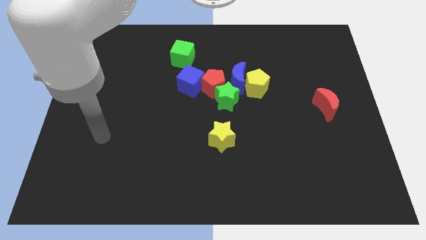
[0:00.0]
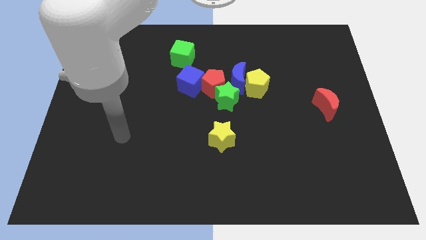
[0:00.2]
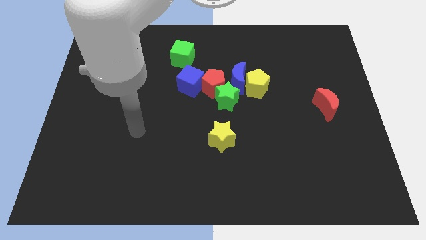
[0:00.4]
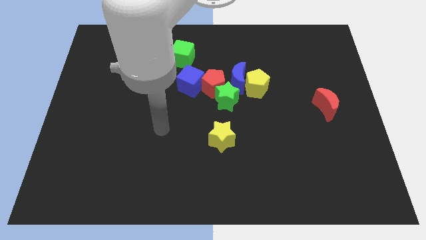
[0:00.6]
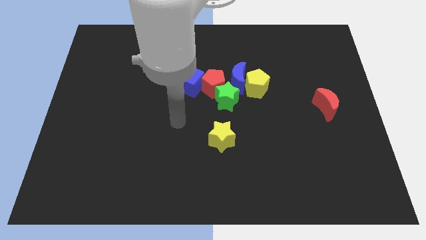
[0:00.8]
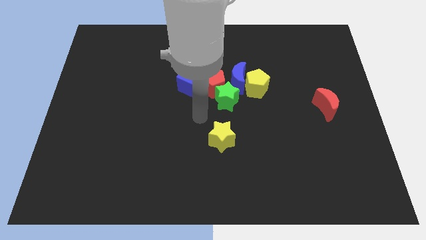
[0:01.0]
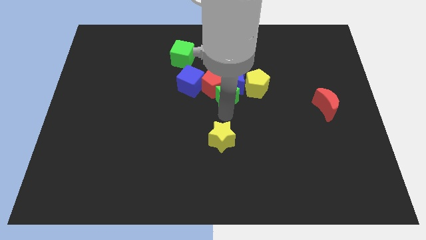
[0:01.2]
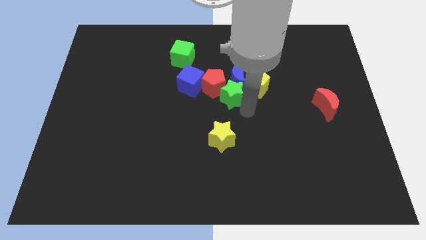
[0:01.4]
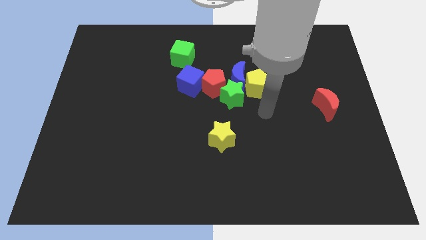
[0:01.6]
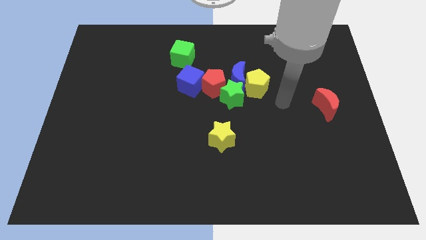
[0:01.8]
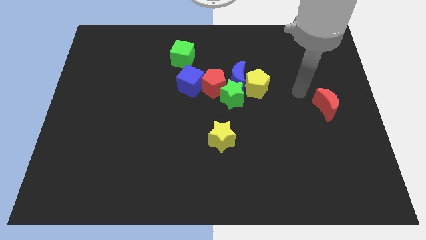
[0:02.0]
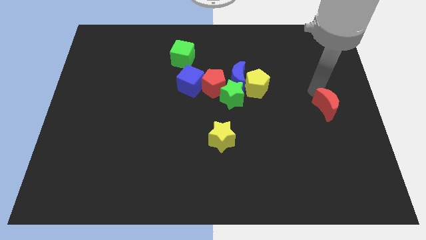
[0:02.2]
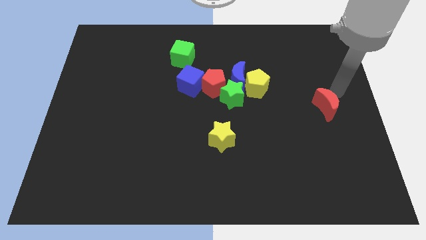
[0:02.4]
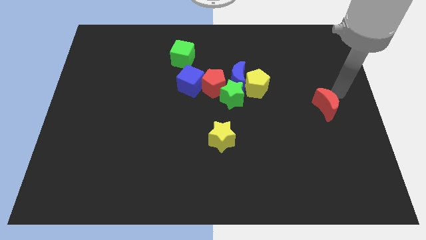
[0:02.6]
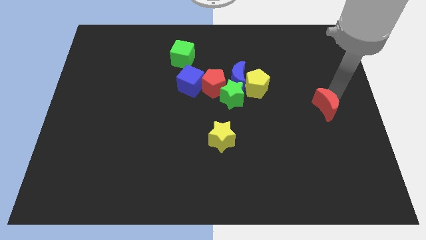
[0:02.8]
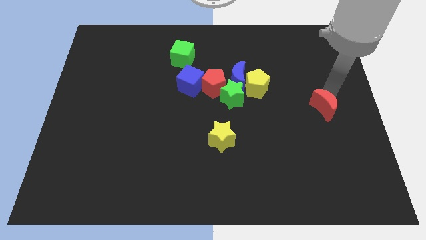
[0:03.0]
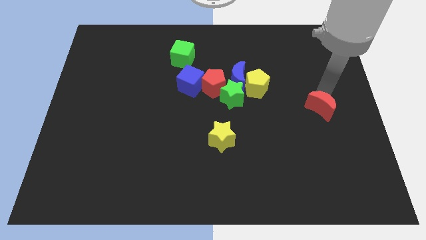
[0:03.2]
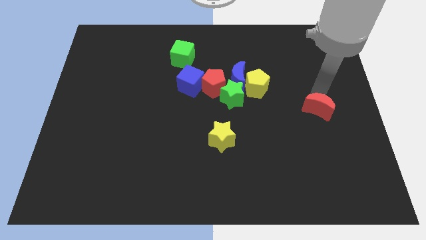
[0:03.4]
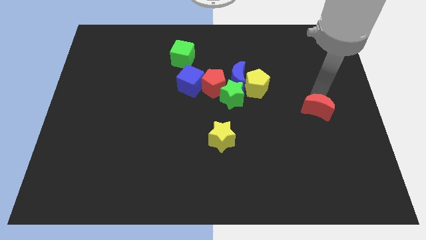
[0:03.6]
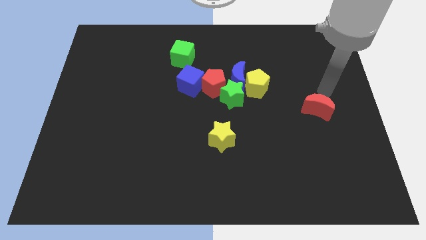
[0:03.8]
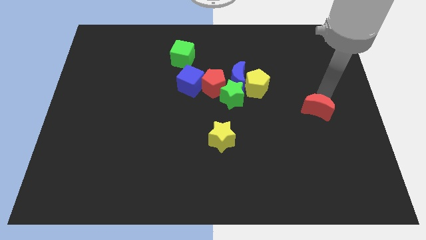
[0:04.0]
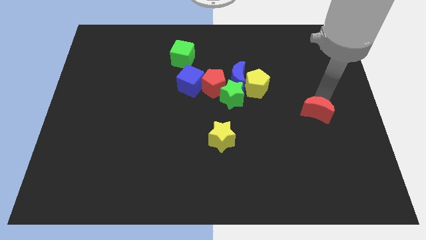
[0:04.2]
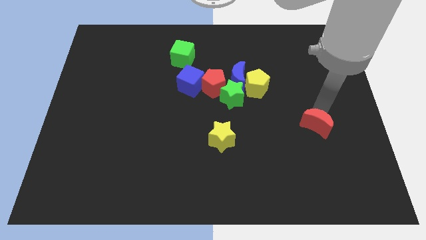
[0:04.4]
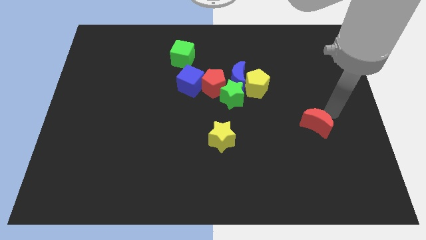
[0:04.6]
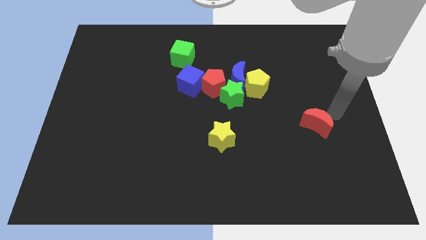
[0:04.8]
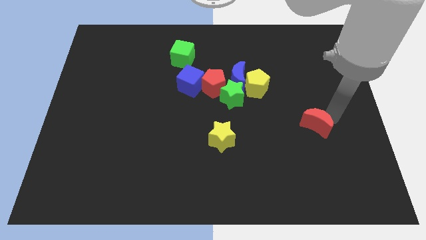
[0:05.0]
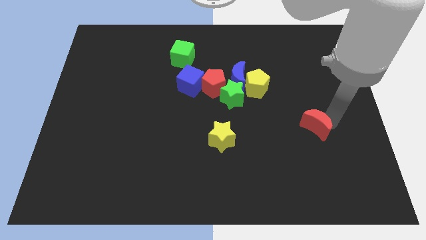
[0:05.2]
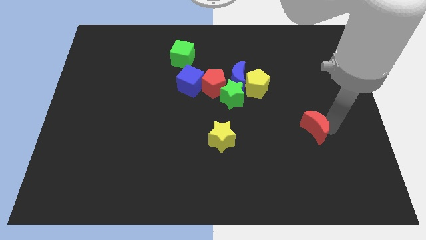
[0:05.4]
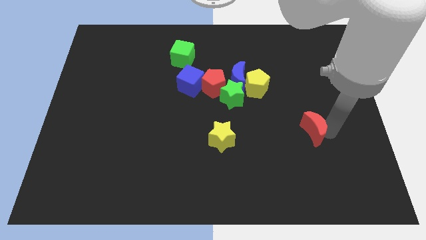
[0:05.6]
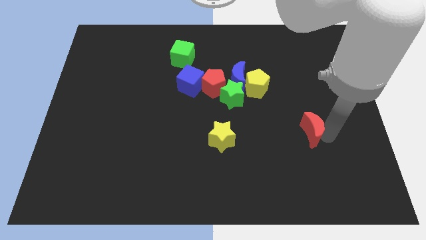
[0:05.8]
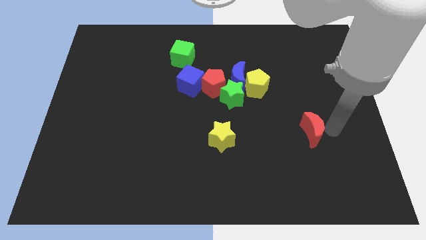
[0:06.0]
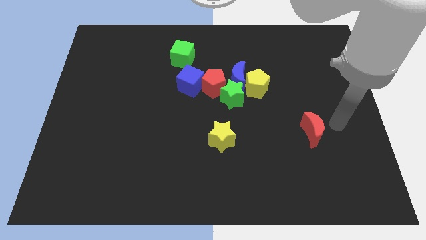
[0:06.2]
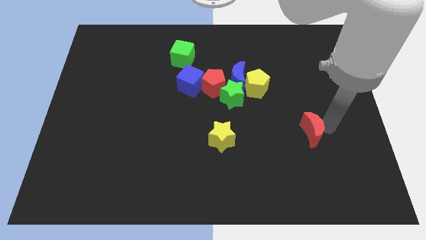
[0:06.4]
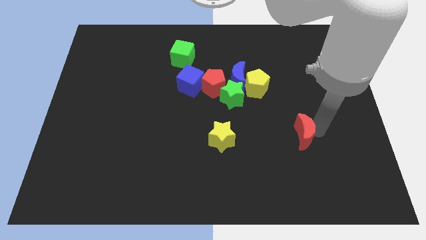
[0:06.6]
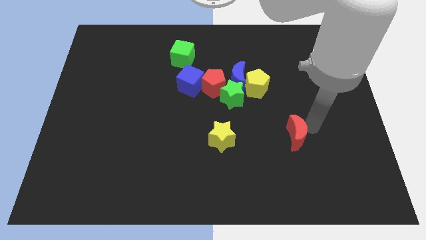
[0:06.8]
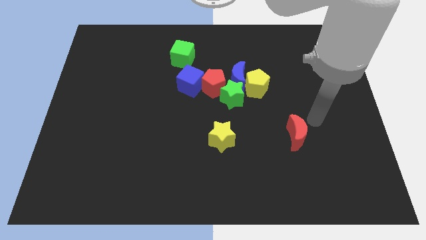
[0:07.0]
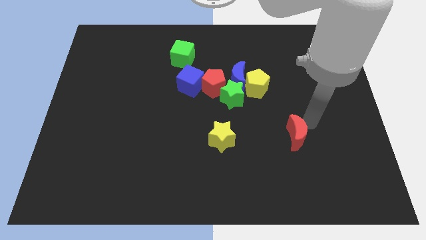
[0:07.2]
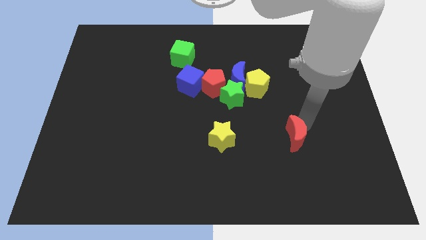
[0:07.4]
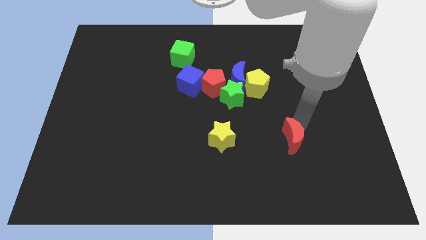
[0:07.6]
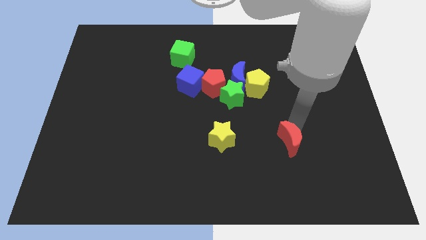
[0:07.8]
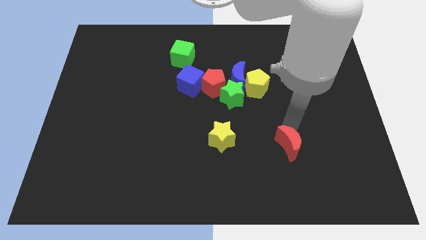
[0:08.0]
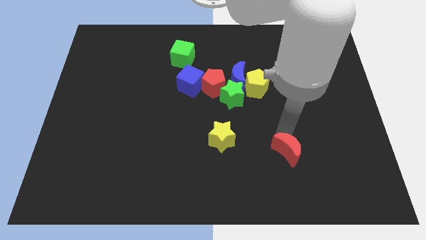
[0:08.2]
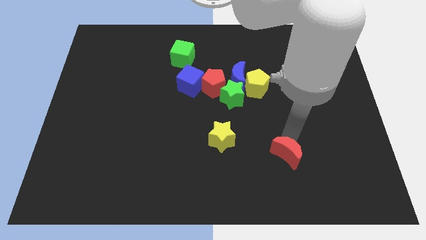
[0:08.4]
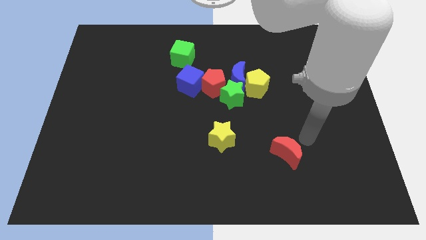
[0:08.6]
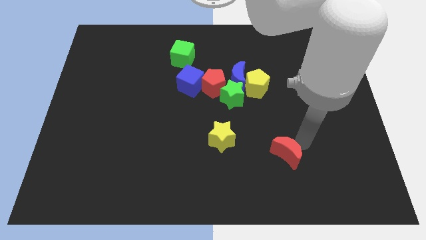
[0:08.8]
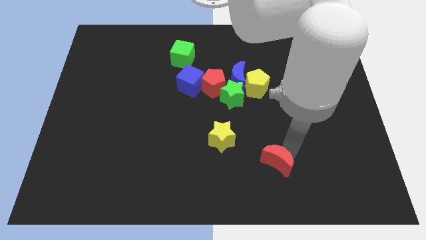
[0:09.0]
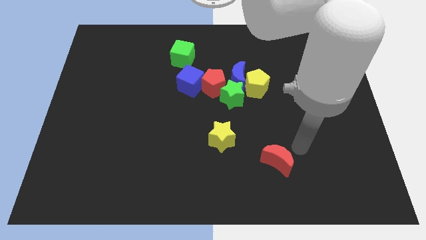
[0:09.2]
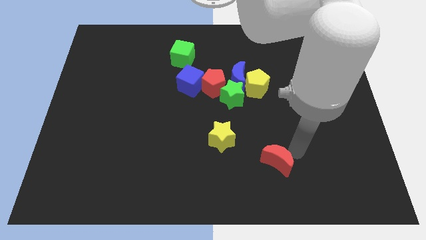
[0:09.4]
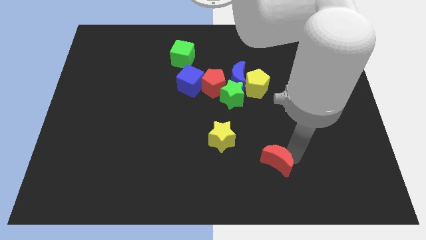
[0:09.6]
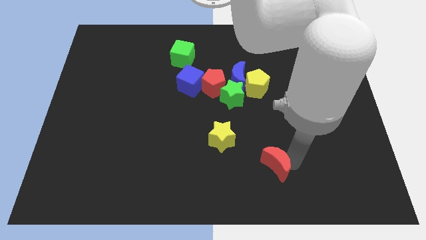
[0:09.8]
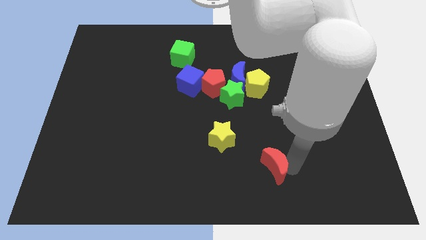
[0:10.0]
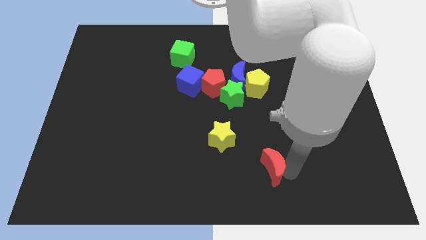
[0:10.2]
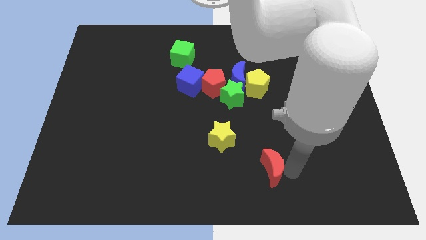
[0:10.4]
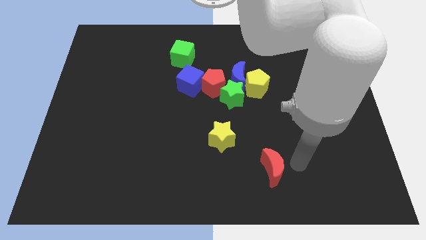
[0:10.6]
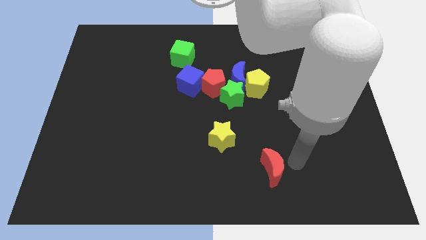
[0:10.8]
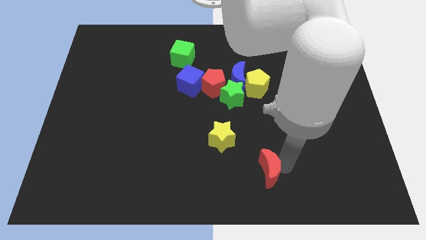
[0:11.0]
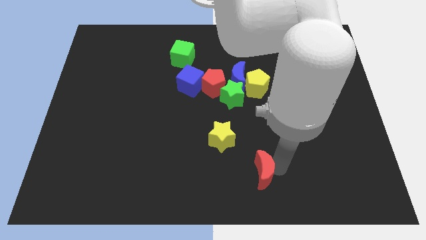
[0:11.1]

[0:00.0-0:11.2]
slide the red moon to the bottom side

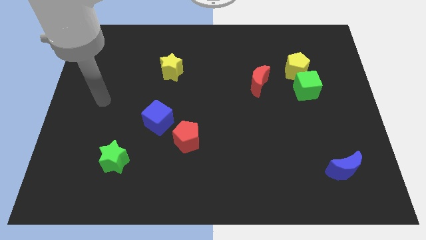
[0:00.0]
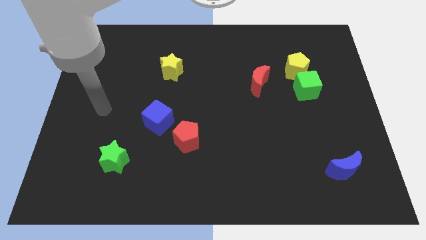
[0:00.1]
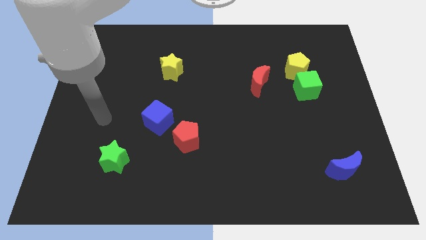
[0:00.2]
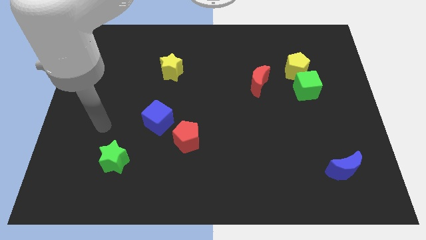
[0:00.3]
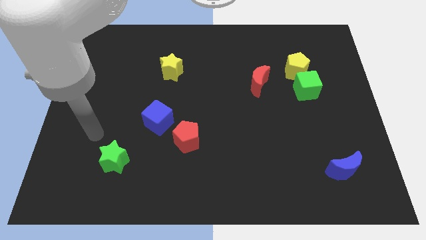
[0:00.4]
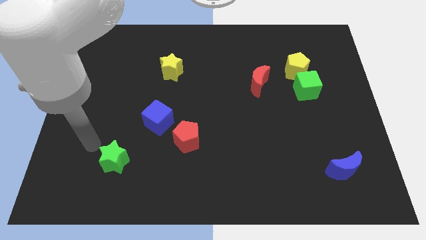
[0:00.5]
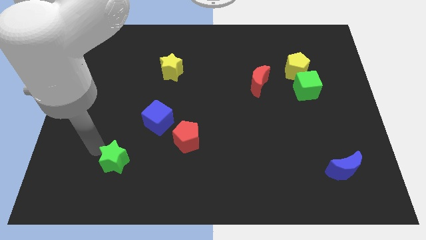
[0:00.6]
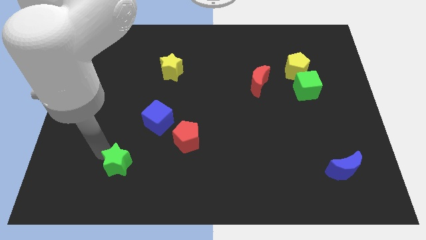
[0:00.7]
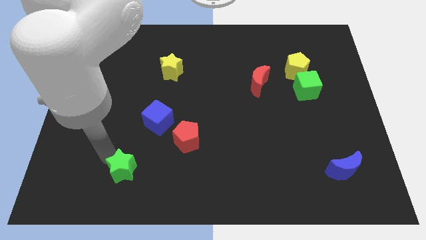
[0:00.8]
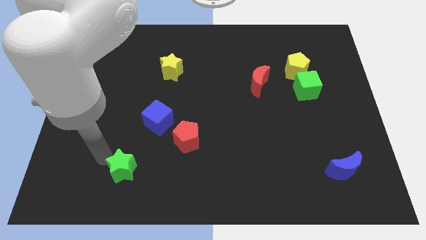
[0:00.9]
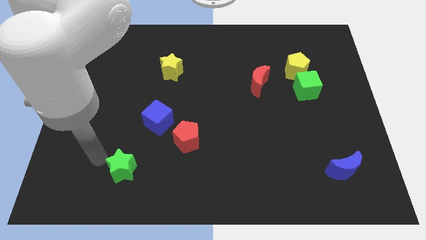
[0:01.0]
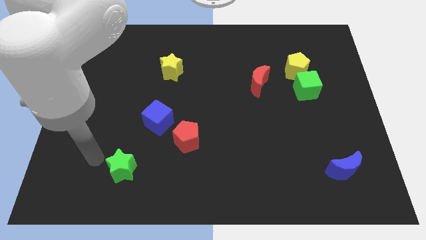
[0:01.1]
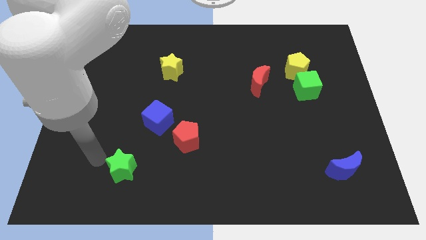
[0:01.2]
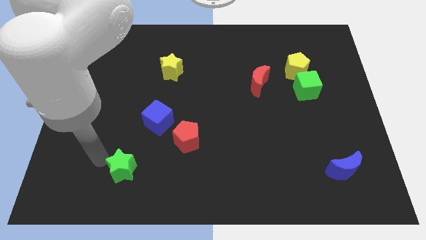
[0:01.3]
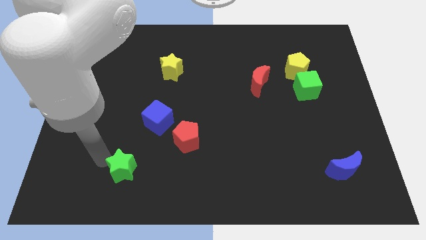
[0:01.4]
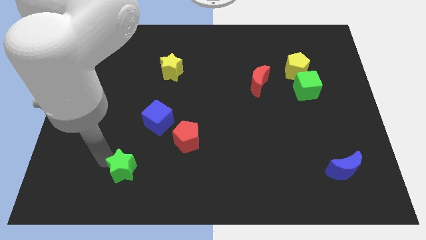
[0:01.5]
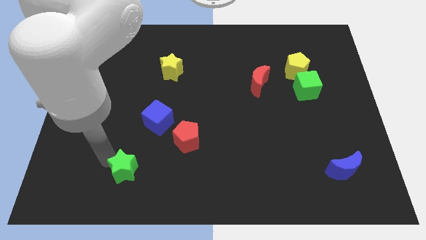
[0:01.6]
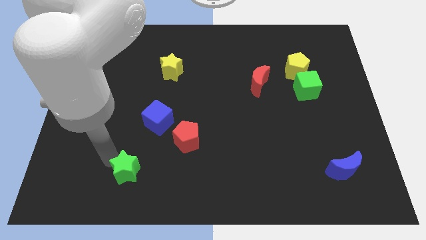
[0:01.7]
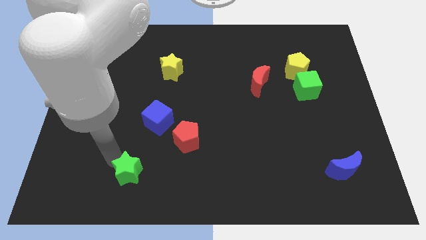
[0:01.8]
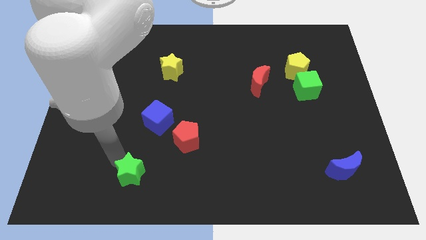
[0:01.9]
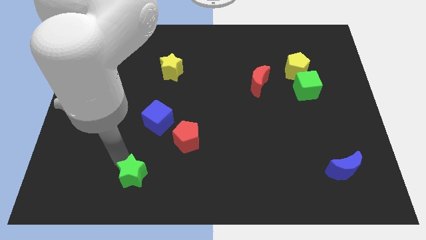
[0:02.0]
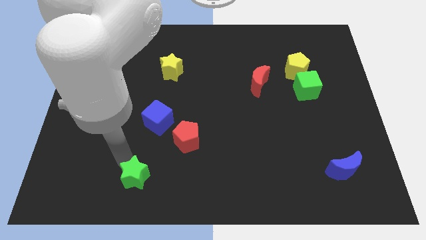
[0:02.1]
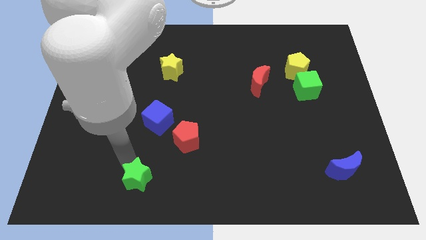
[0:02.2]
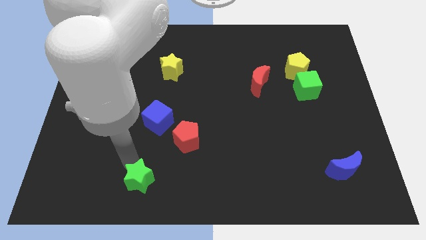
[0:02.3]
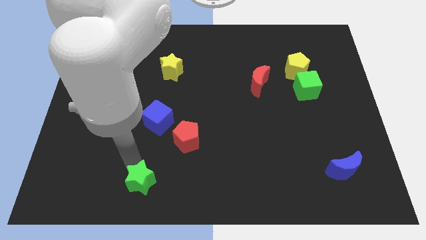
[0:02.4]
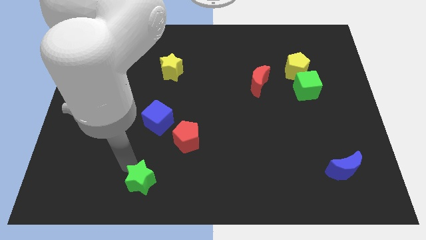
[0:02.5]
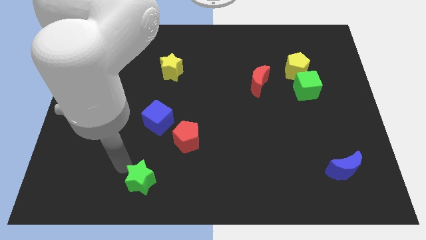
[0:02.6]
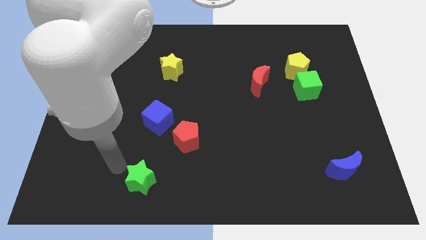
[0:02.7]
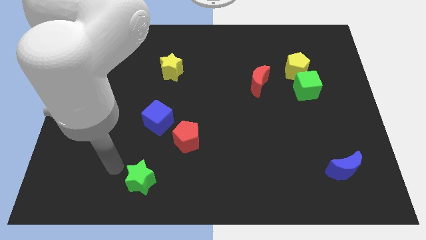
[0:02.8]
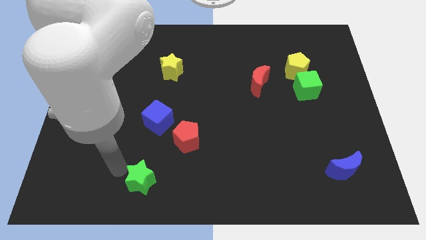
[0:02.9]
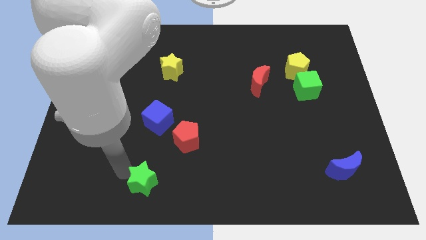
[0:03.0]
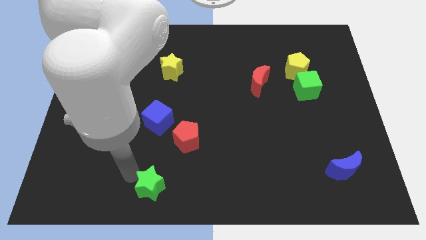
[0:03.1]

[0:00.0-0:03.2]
move the green star to the bottom
